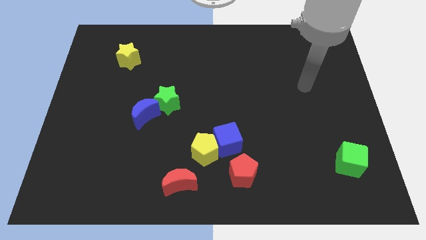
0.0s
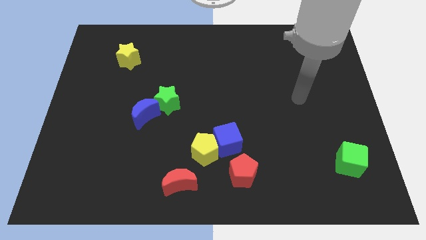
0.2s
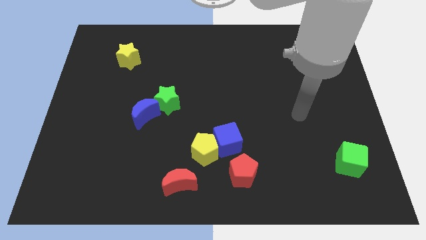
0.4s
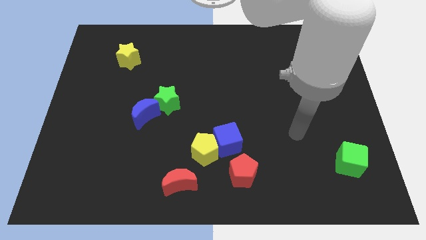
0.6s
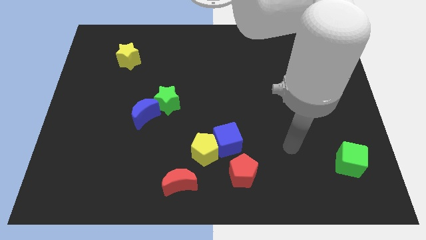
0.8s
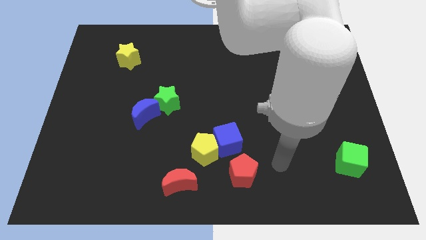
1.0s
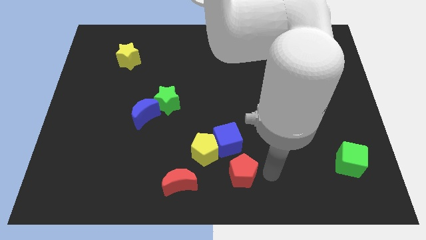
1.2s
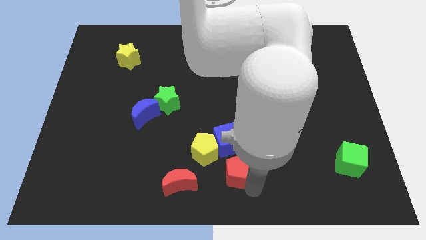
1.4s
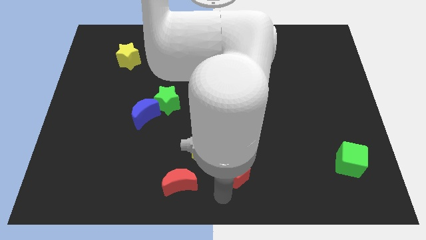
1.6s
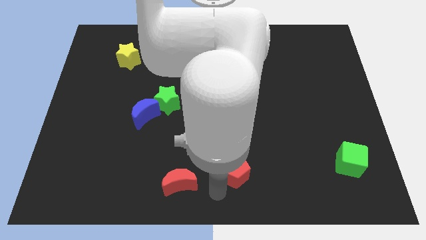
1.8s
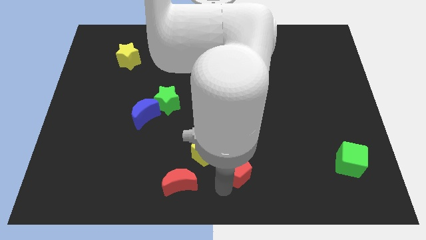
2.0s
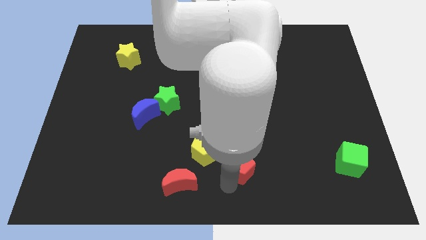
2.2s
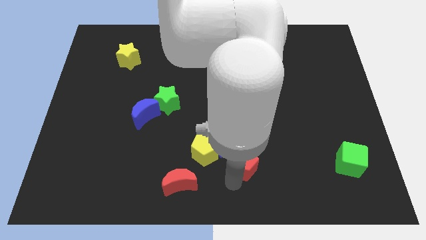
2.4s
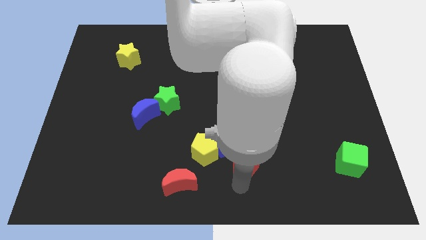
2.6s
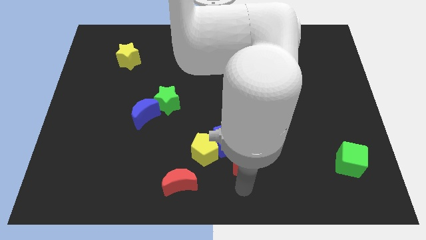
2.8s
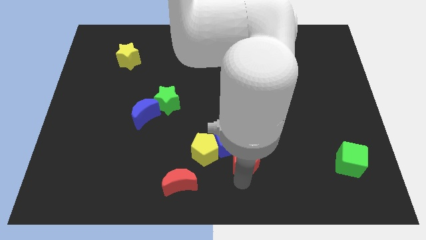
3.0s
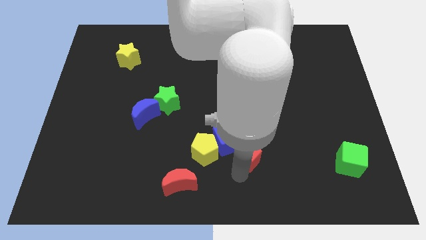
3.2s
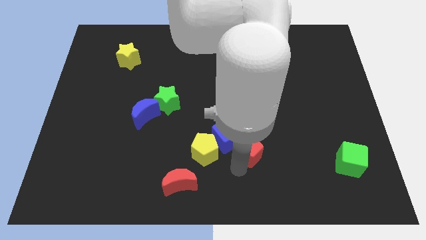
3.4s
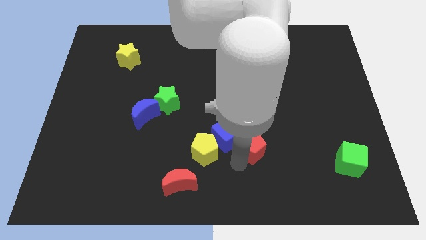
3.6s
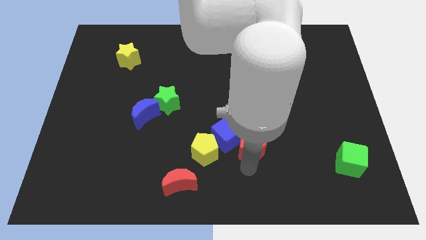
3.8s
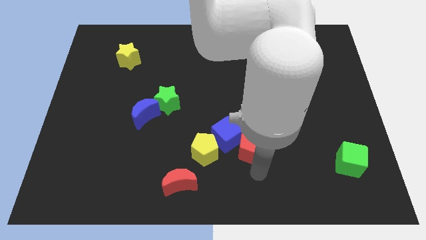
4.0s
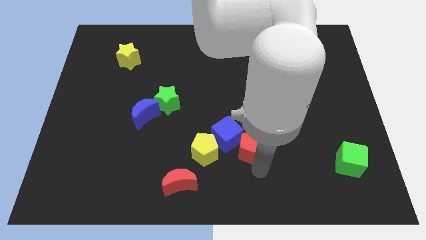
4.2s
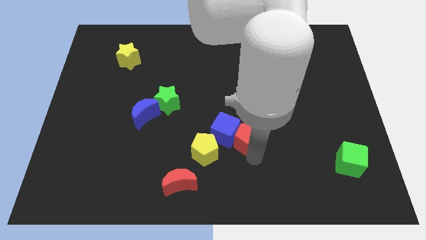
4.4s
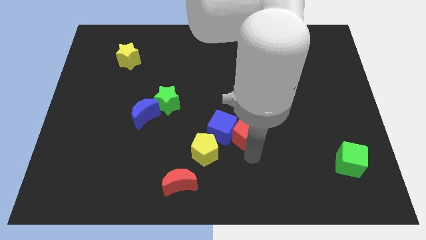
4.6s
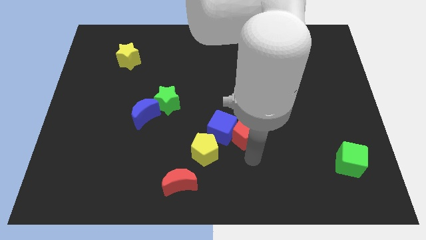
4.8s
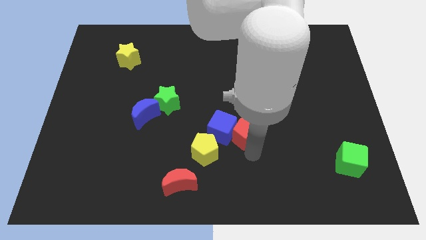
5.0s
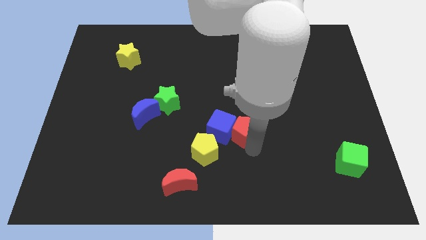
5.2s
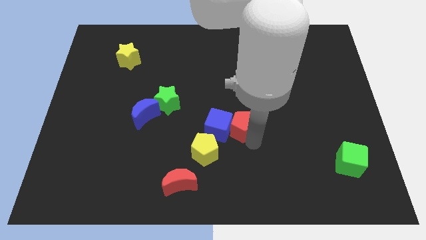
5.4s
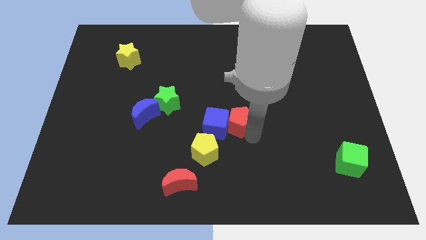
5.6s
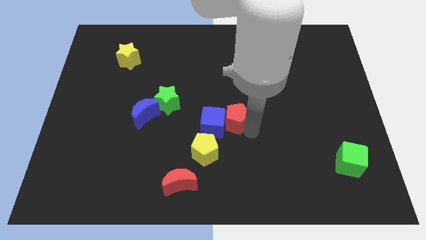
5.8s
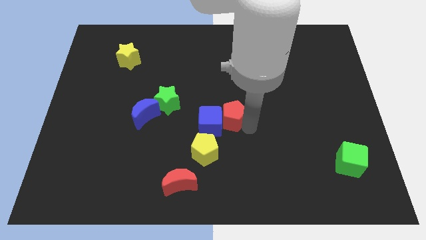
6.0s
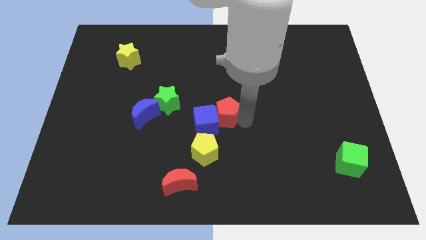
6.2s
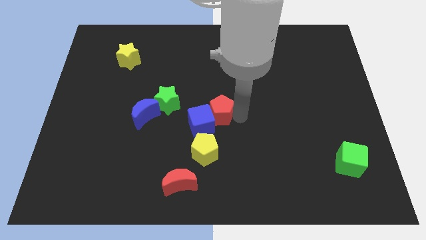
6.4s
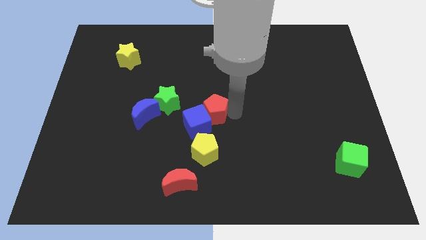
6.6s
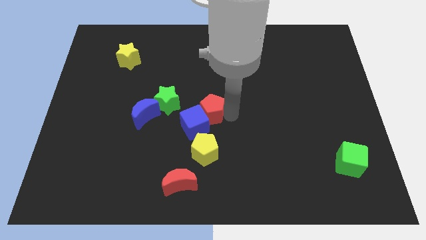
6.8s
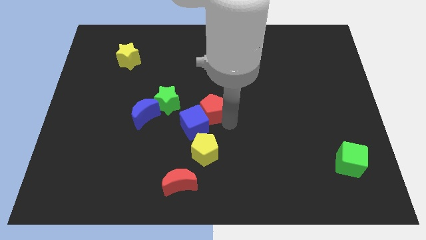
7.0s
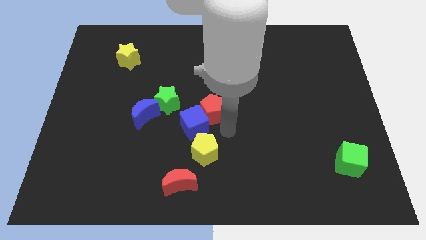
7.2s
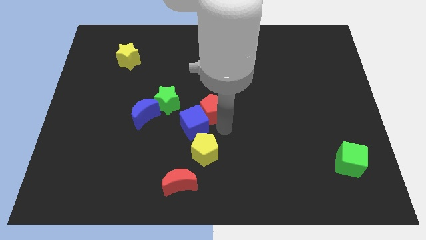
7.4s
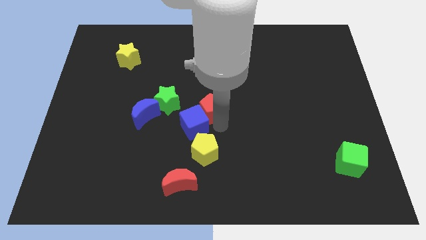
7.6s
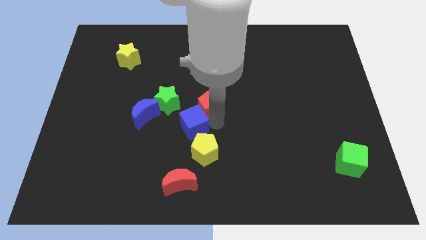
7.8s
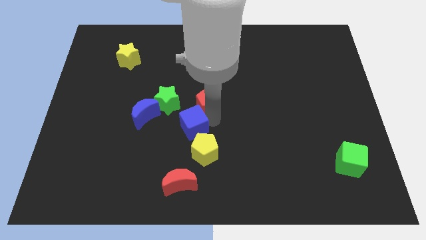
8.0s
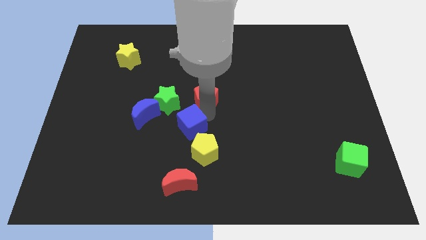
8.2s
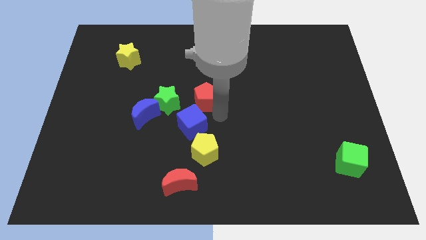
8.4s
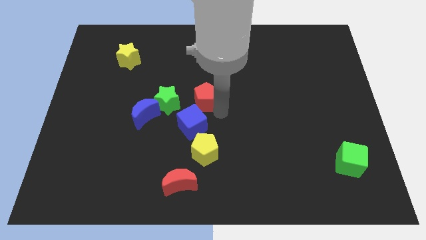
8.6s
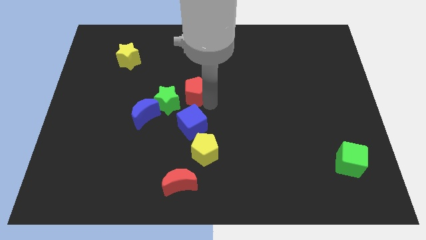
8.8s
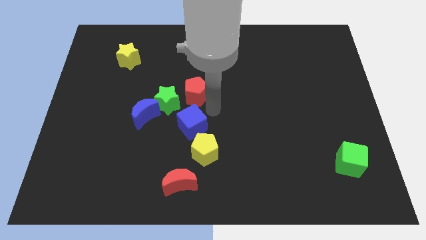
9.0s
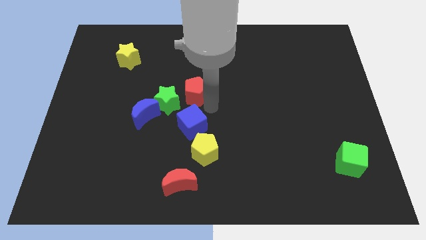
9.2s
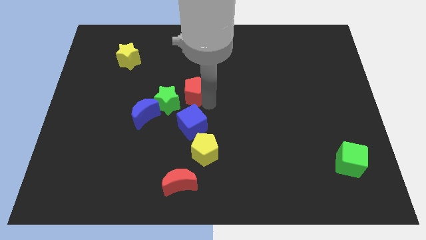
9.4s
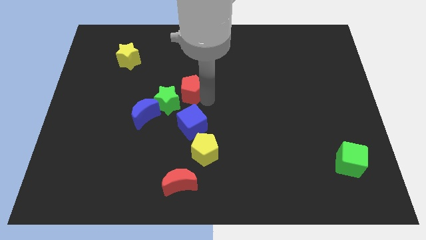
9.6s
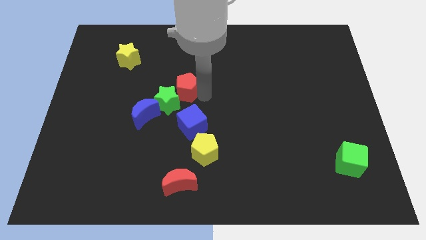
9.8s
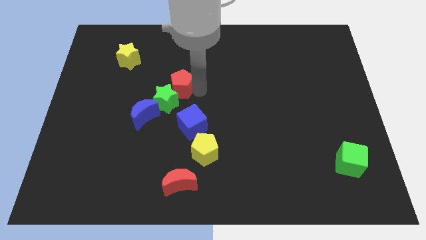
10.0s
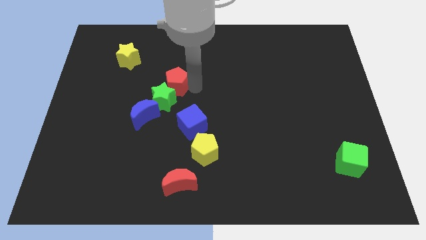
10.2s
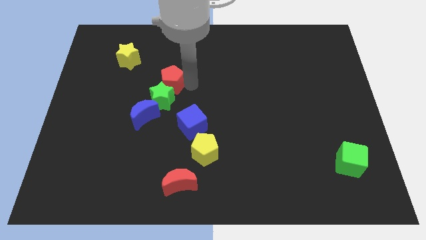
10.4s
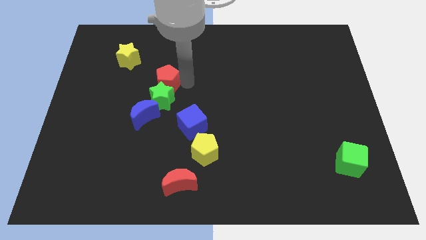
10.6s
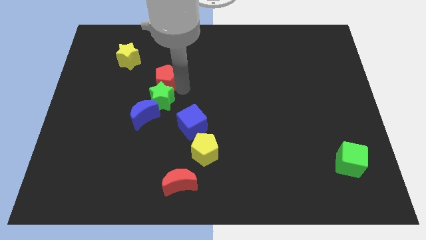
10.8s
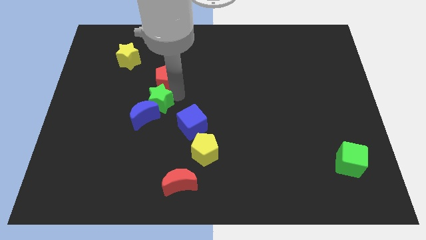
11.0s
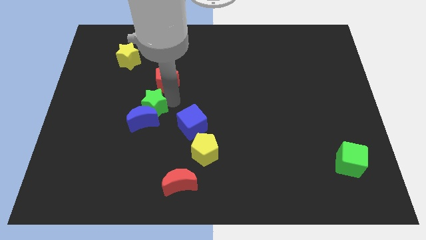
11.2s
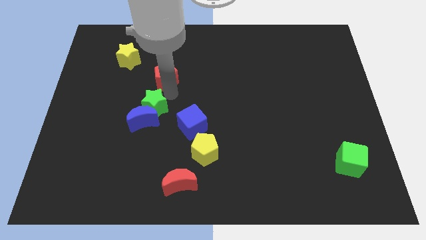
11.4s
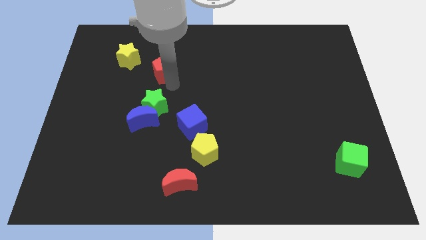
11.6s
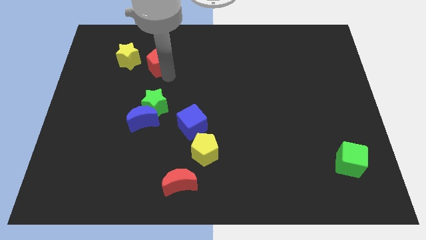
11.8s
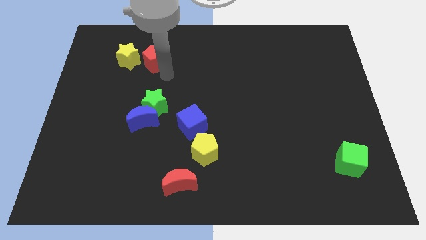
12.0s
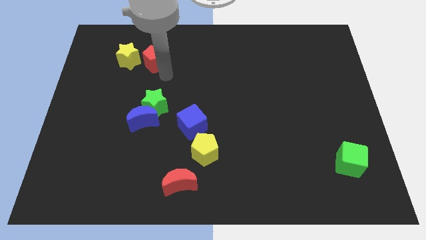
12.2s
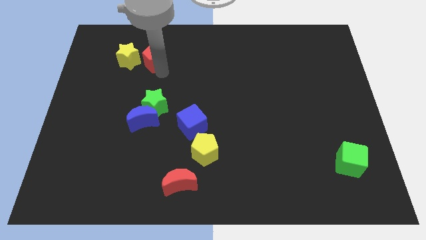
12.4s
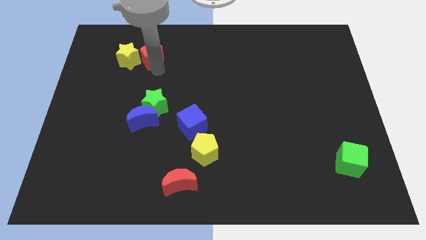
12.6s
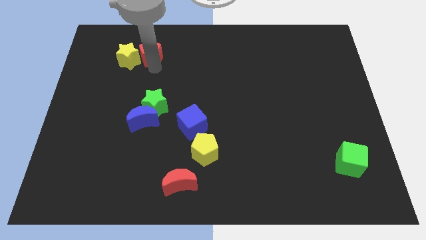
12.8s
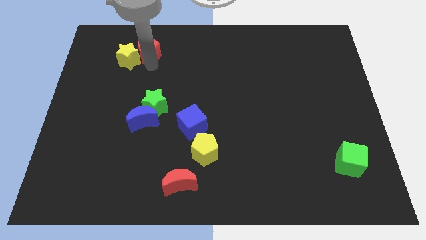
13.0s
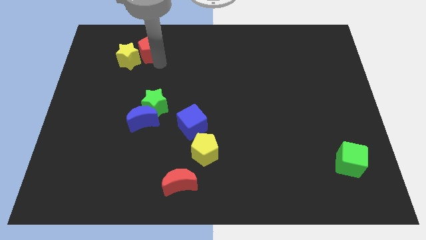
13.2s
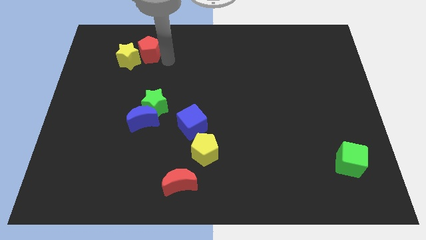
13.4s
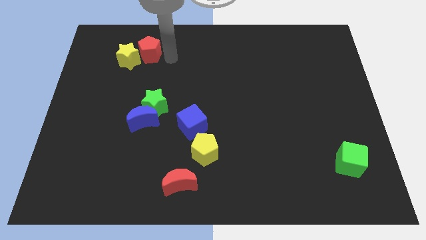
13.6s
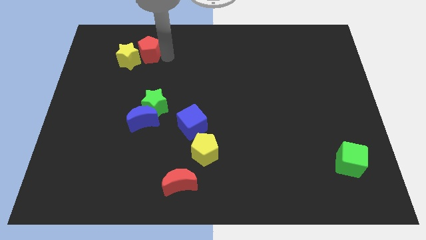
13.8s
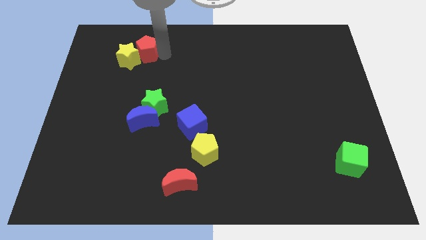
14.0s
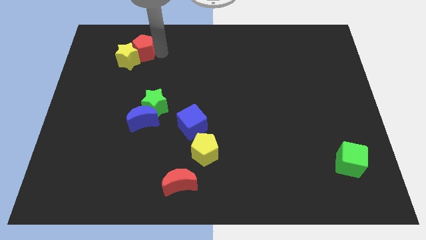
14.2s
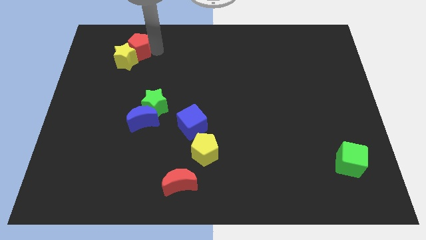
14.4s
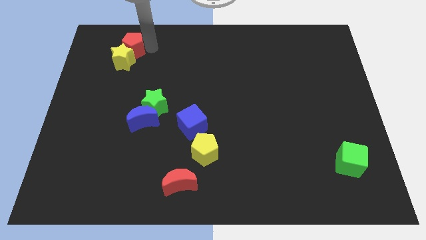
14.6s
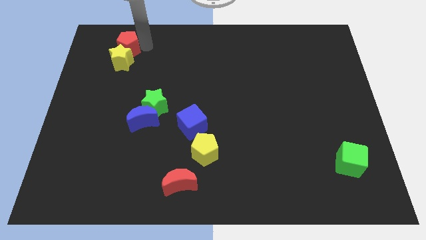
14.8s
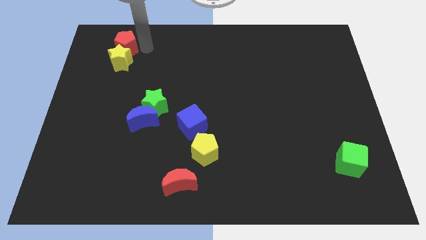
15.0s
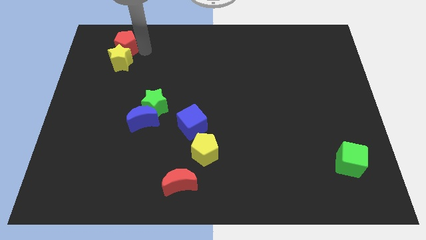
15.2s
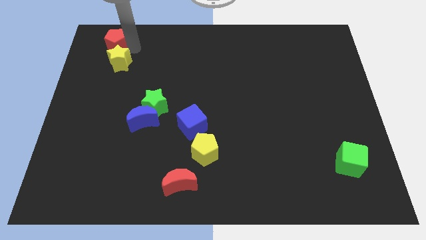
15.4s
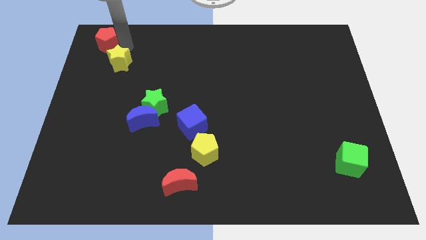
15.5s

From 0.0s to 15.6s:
slide the red pentagon to the top left of the board
